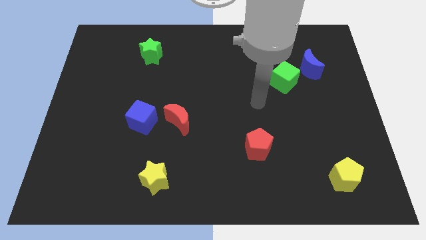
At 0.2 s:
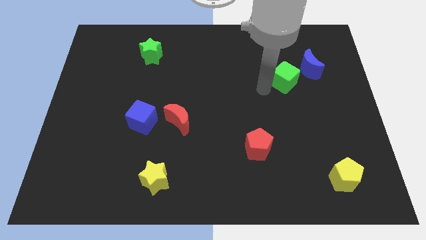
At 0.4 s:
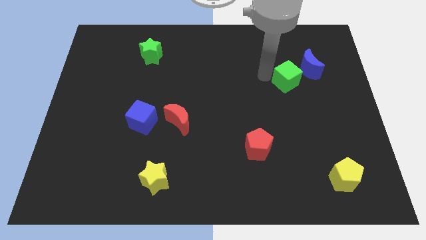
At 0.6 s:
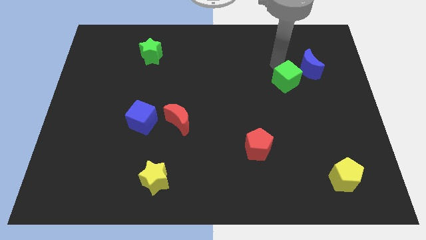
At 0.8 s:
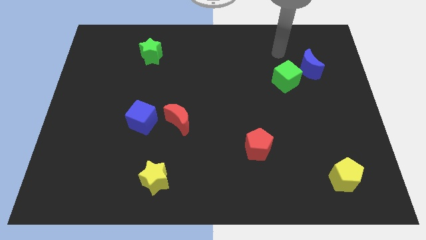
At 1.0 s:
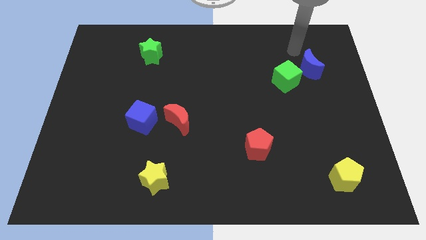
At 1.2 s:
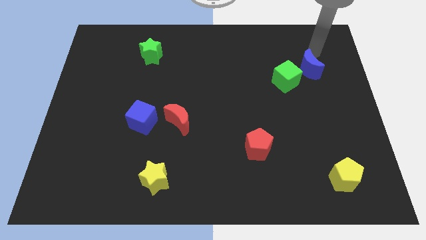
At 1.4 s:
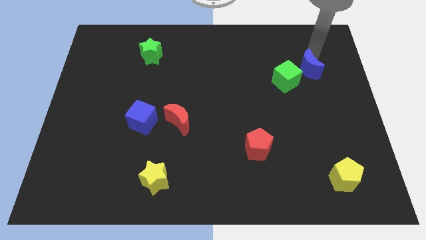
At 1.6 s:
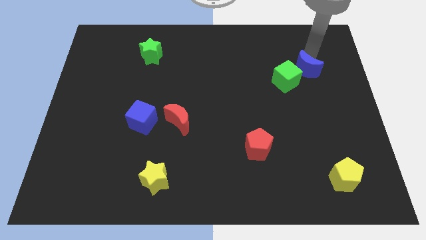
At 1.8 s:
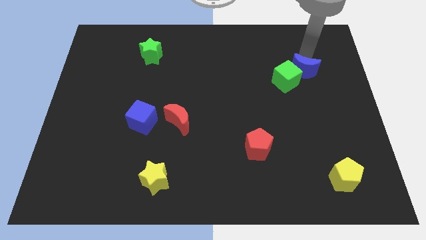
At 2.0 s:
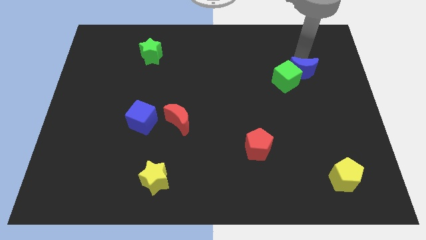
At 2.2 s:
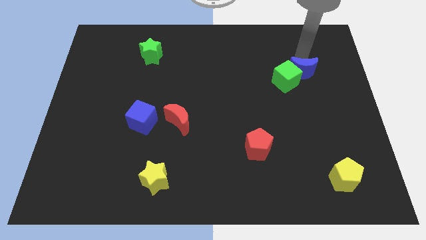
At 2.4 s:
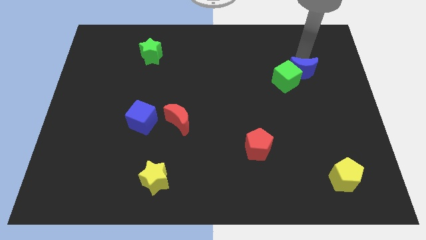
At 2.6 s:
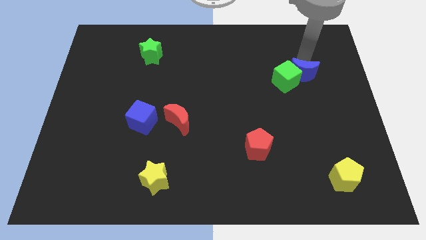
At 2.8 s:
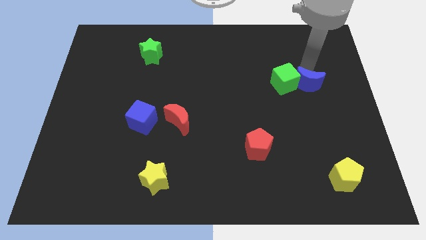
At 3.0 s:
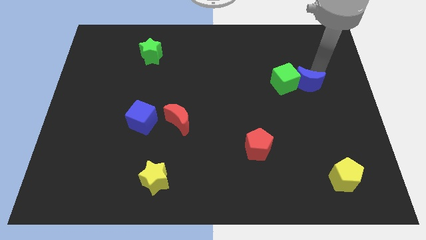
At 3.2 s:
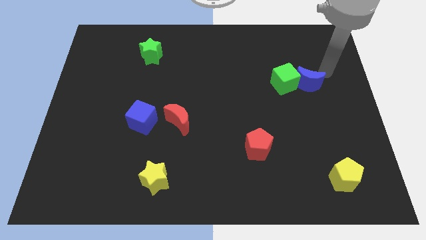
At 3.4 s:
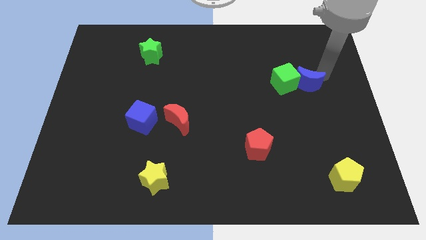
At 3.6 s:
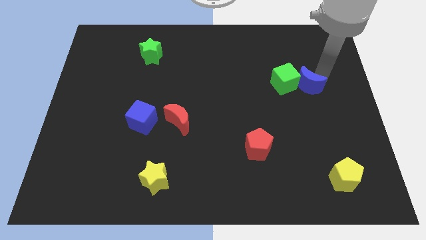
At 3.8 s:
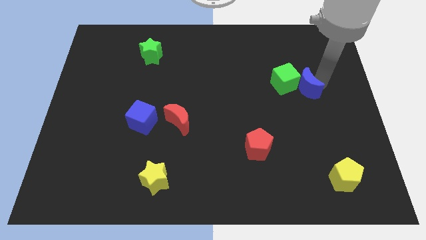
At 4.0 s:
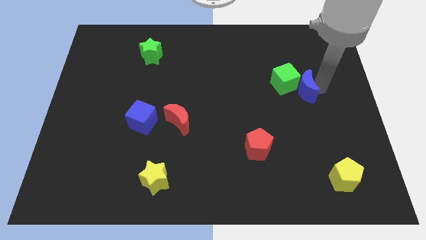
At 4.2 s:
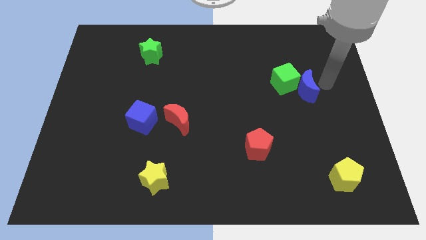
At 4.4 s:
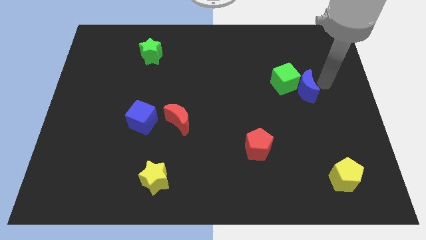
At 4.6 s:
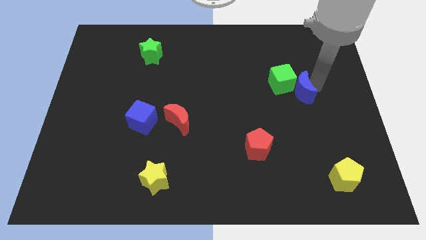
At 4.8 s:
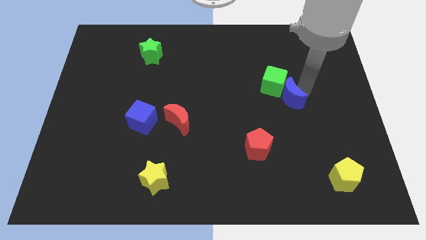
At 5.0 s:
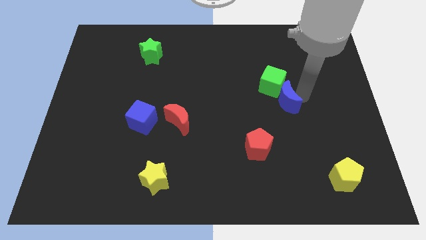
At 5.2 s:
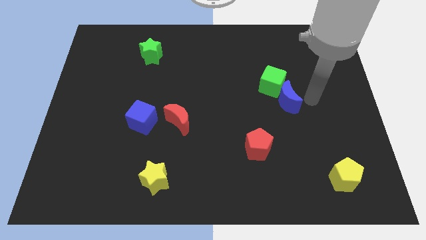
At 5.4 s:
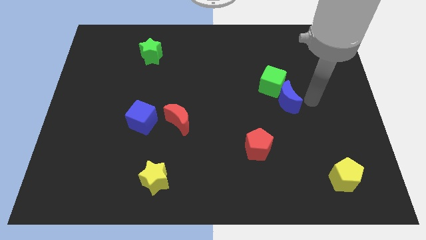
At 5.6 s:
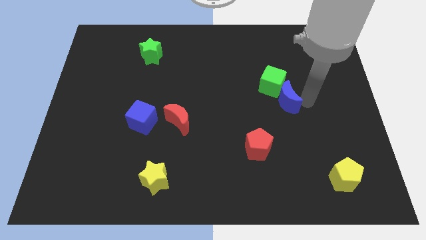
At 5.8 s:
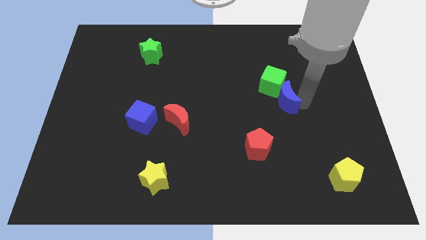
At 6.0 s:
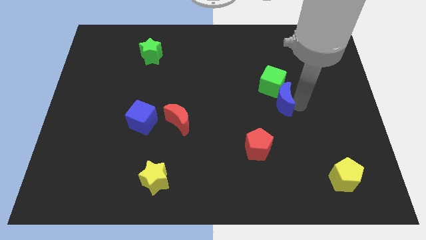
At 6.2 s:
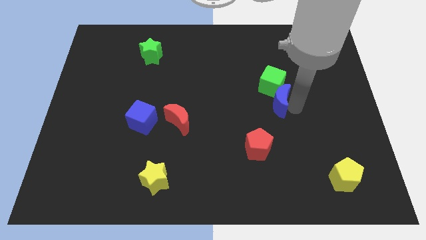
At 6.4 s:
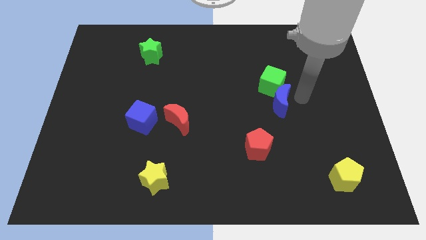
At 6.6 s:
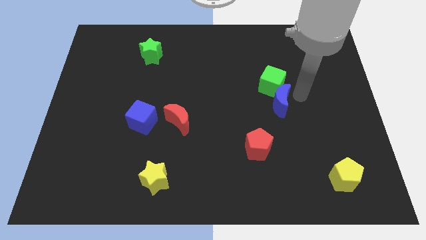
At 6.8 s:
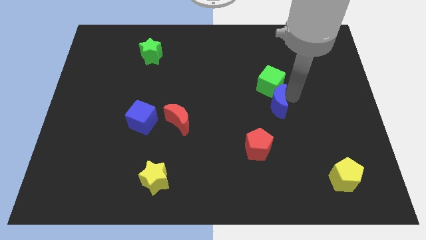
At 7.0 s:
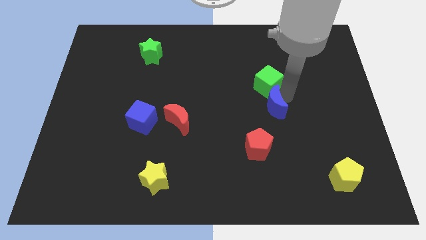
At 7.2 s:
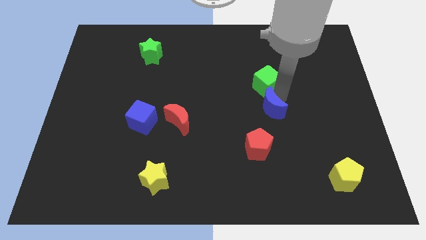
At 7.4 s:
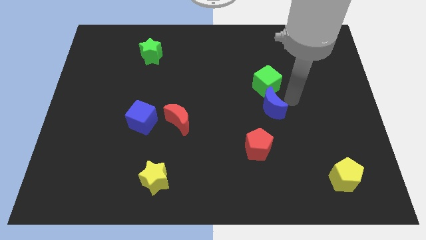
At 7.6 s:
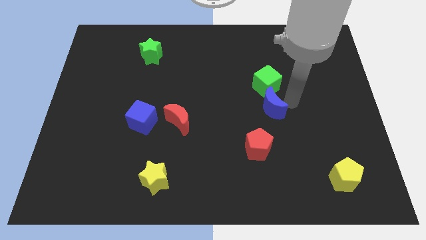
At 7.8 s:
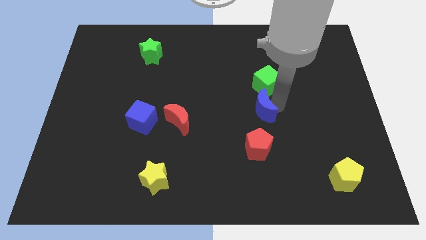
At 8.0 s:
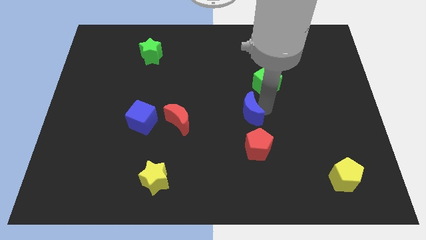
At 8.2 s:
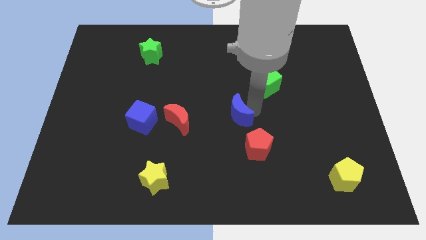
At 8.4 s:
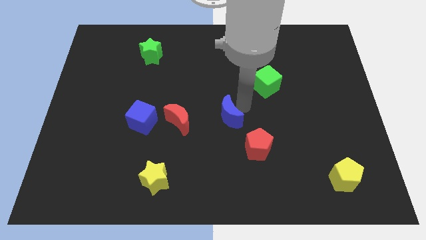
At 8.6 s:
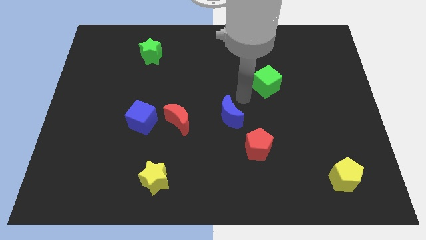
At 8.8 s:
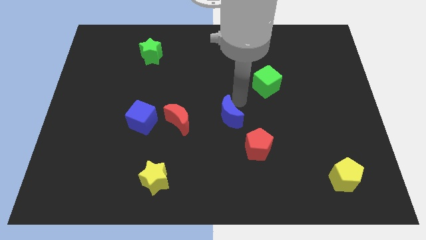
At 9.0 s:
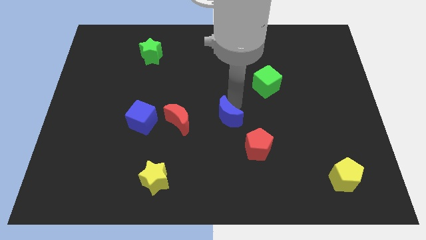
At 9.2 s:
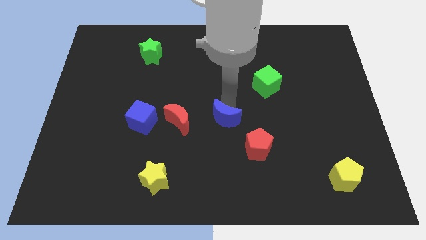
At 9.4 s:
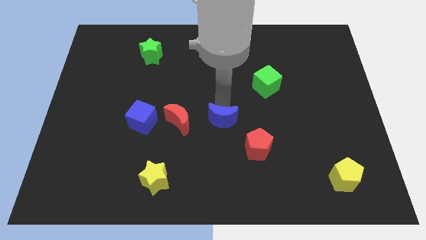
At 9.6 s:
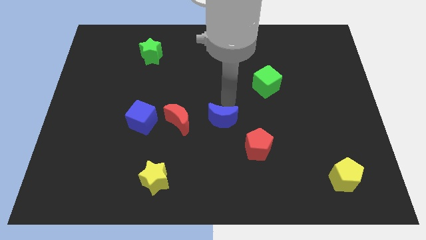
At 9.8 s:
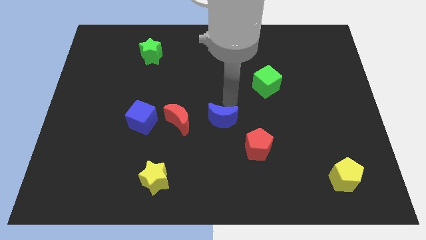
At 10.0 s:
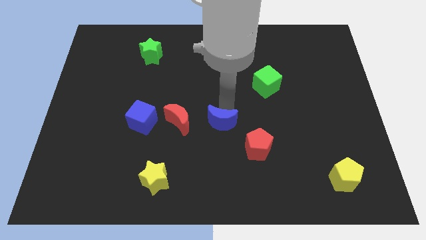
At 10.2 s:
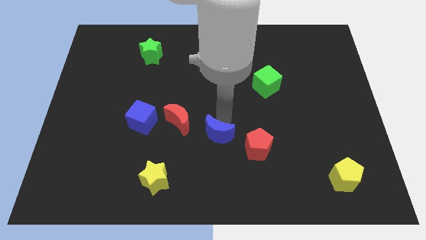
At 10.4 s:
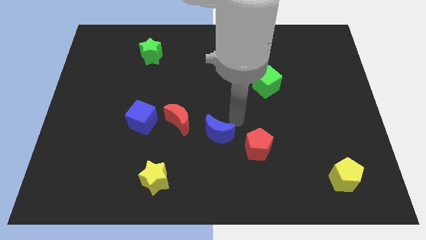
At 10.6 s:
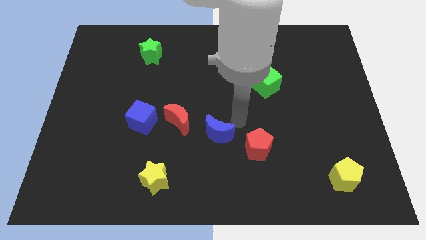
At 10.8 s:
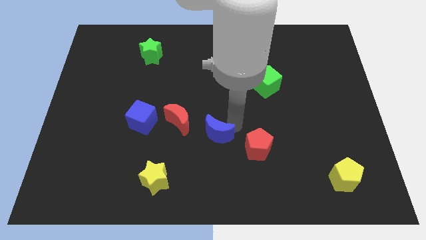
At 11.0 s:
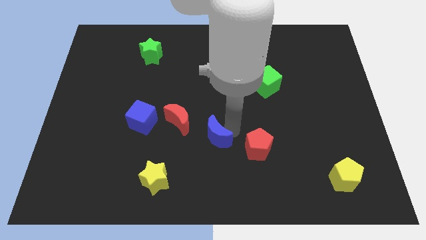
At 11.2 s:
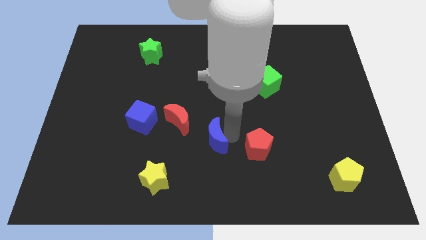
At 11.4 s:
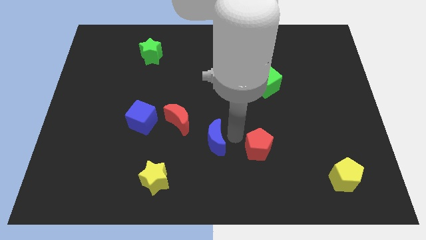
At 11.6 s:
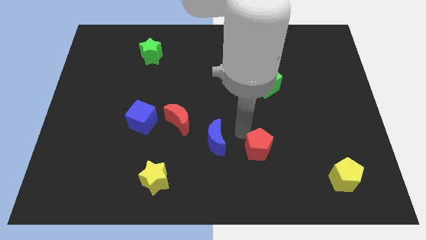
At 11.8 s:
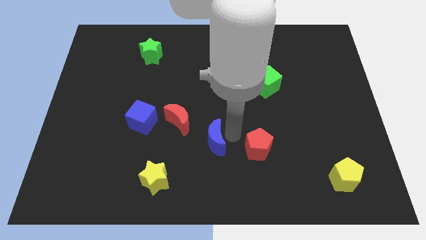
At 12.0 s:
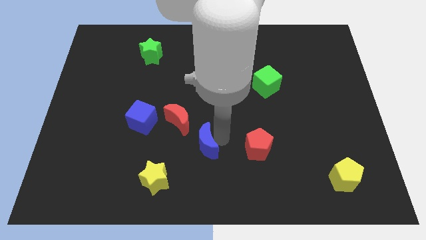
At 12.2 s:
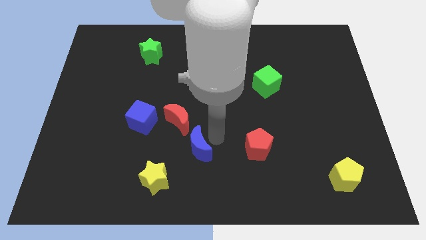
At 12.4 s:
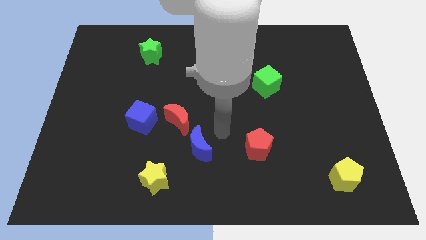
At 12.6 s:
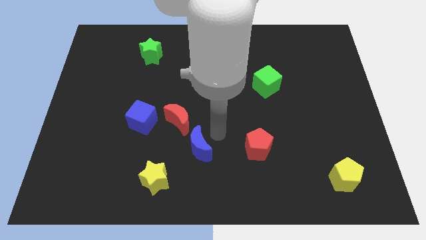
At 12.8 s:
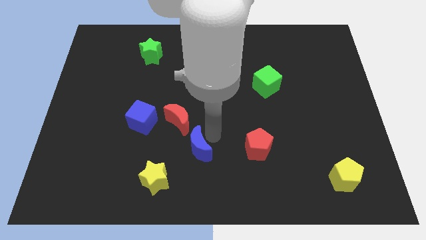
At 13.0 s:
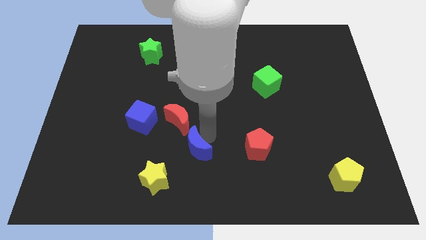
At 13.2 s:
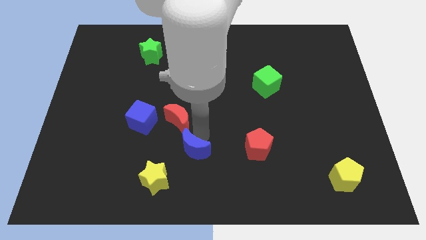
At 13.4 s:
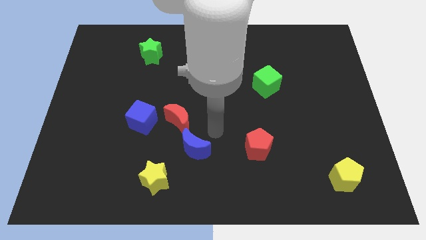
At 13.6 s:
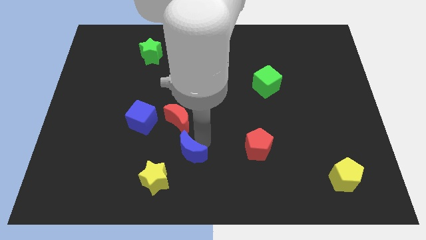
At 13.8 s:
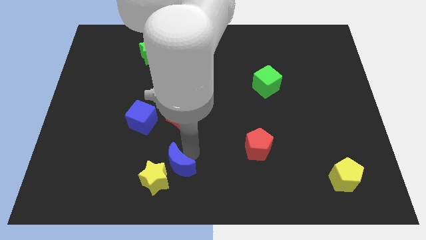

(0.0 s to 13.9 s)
move the blue moon close to the yellow star
